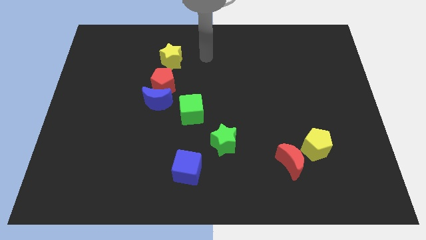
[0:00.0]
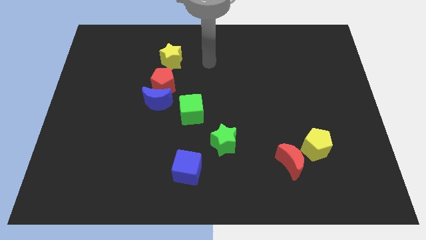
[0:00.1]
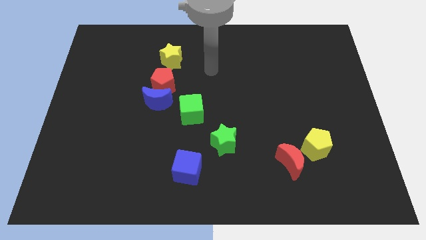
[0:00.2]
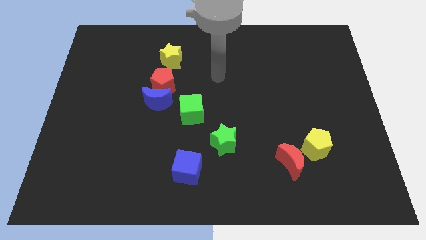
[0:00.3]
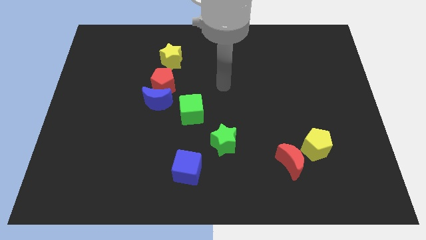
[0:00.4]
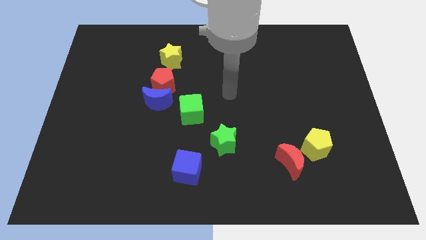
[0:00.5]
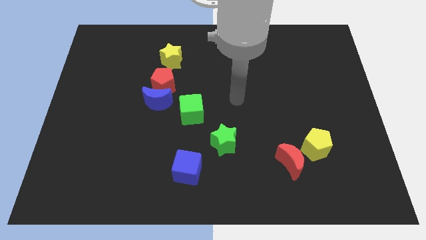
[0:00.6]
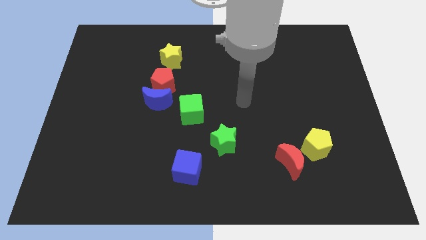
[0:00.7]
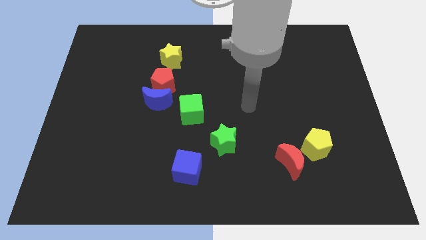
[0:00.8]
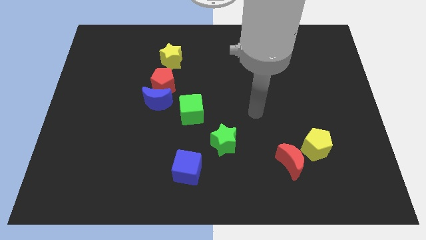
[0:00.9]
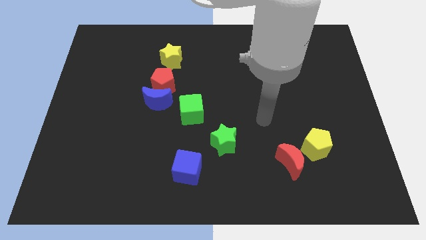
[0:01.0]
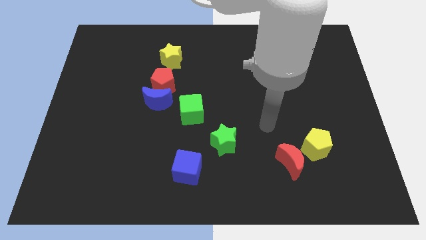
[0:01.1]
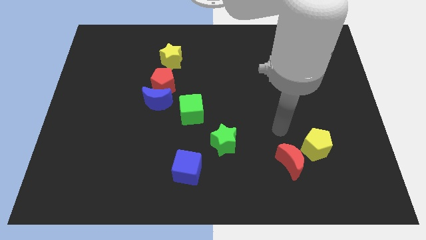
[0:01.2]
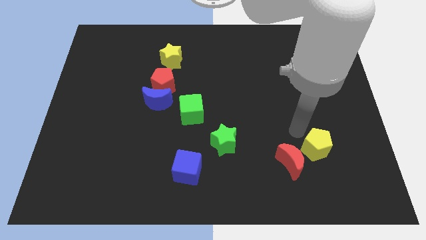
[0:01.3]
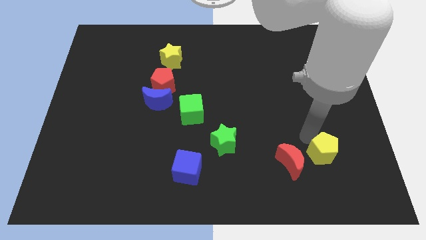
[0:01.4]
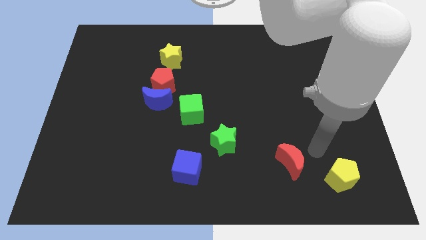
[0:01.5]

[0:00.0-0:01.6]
move the red moon away from the yellow pentagon

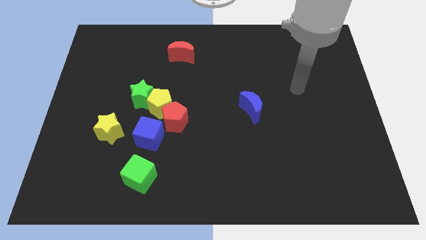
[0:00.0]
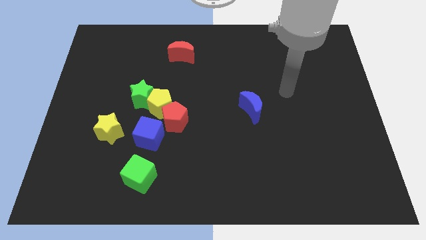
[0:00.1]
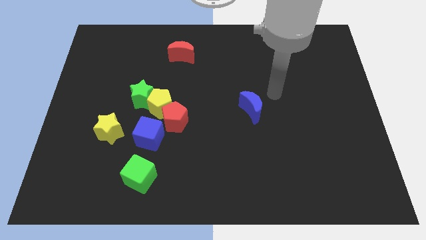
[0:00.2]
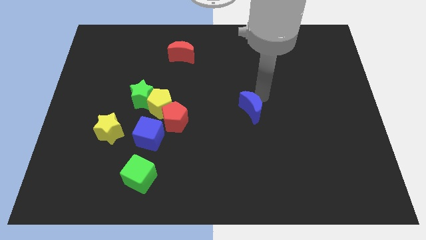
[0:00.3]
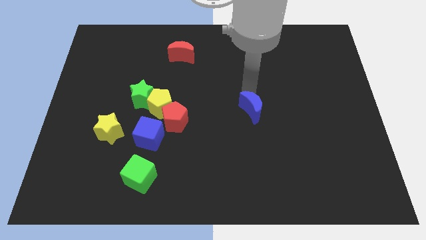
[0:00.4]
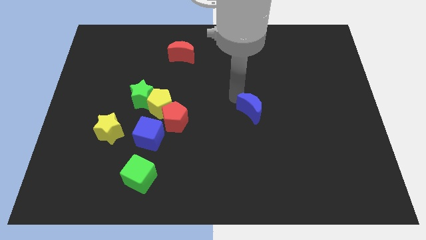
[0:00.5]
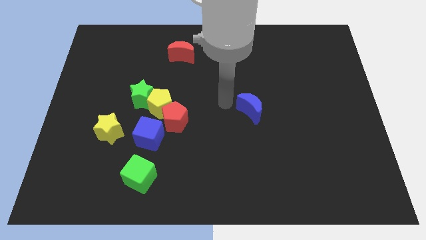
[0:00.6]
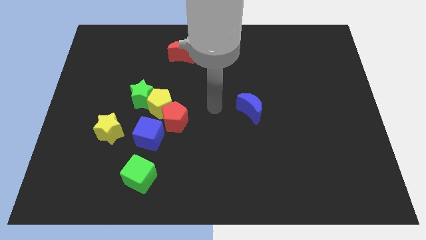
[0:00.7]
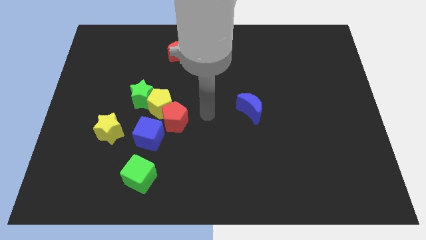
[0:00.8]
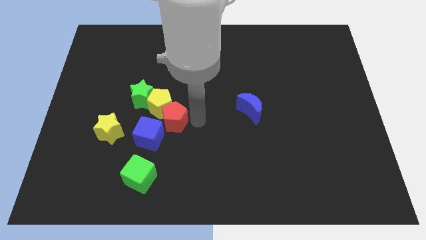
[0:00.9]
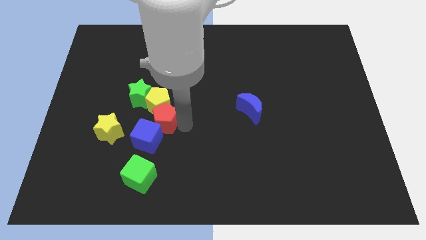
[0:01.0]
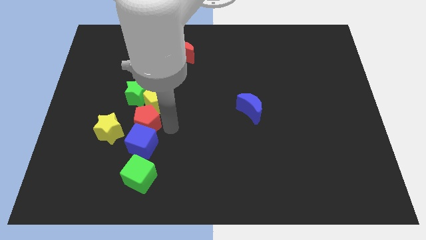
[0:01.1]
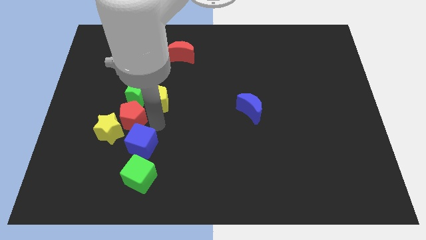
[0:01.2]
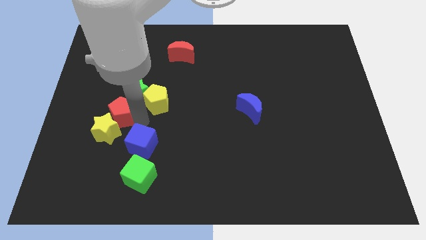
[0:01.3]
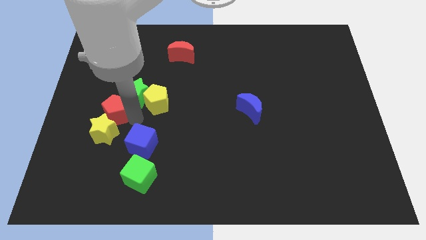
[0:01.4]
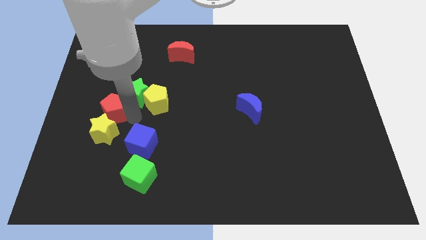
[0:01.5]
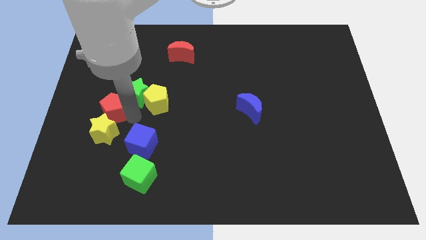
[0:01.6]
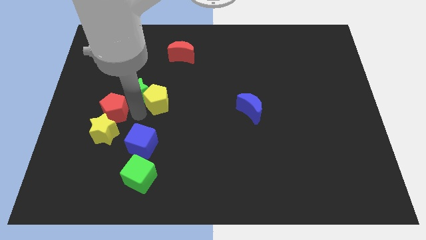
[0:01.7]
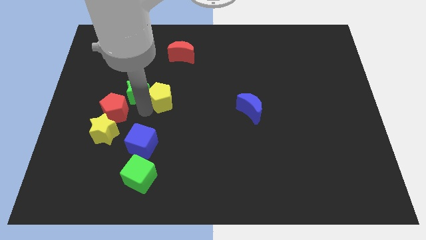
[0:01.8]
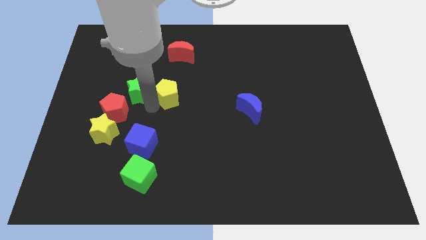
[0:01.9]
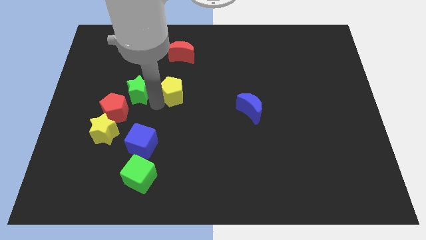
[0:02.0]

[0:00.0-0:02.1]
move the yellow pentagon away from the group of blocks

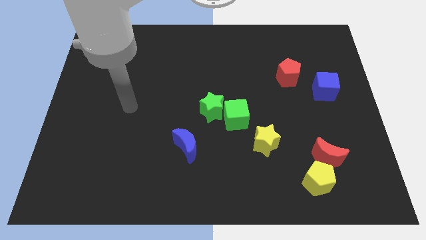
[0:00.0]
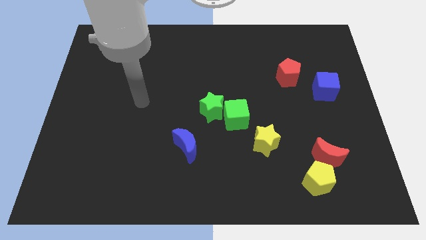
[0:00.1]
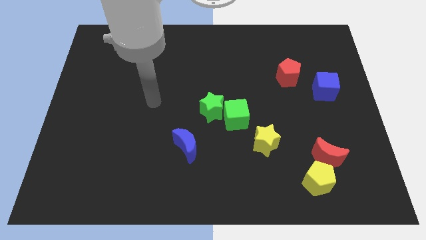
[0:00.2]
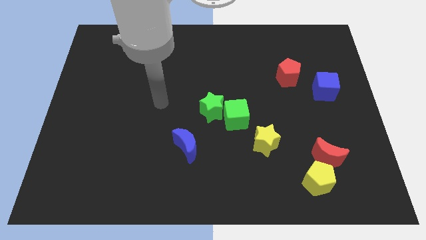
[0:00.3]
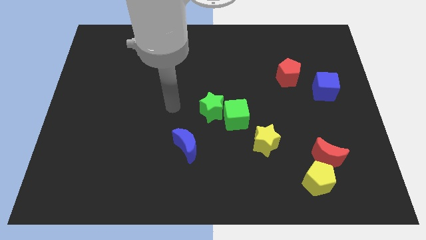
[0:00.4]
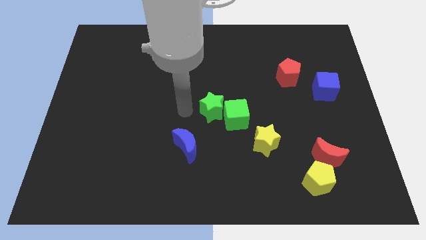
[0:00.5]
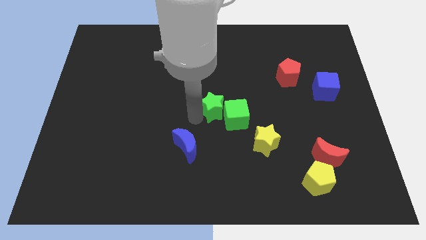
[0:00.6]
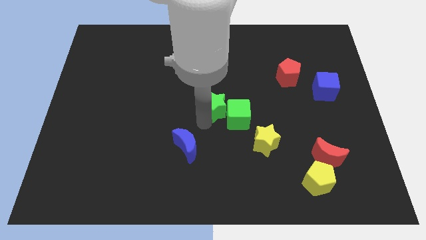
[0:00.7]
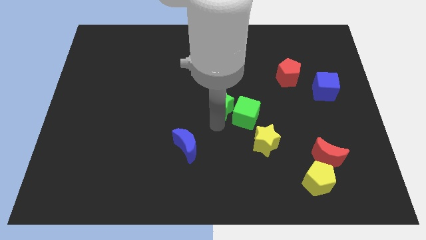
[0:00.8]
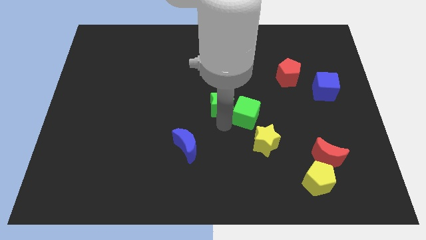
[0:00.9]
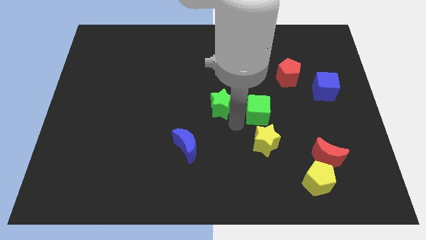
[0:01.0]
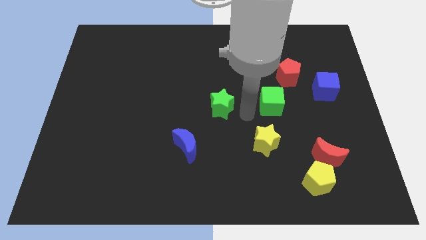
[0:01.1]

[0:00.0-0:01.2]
pull the green star apart from the green cube

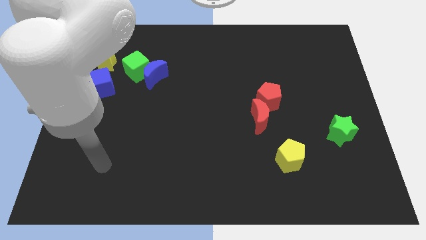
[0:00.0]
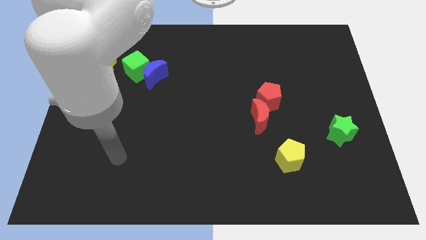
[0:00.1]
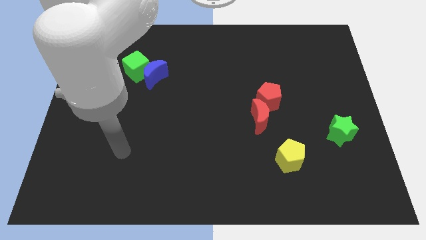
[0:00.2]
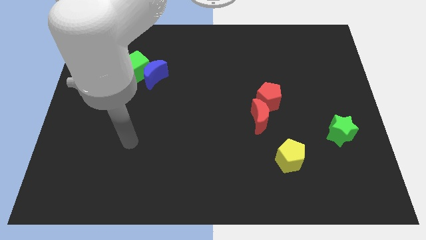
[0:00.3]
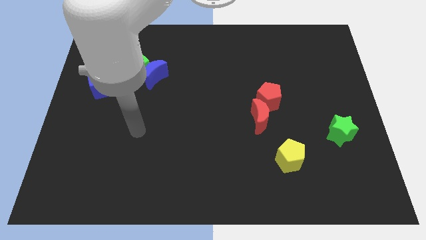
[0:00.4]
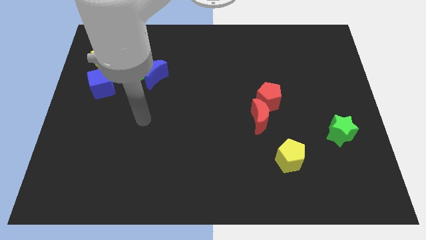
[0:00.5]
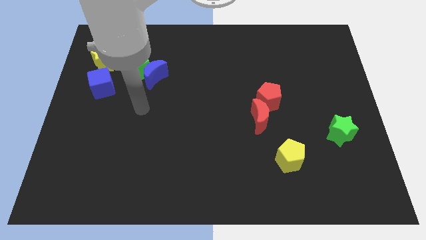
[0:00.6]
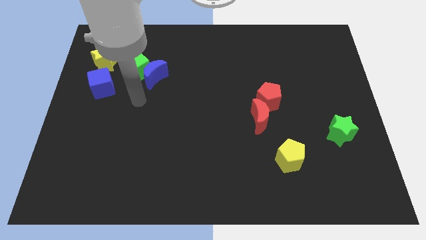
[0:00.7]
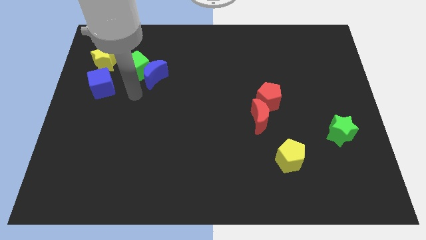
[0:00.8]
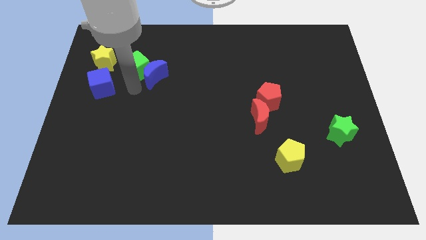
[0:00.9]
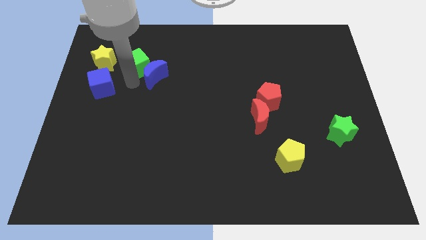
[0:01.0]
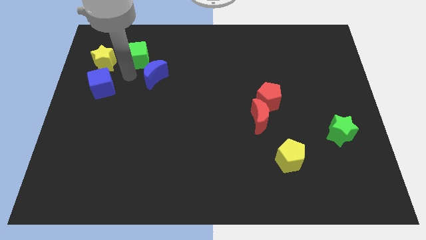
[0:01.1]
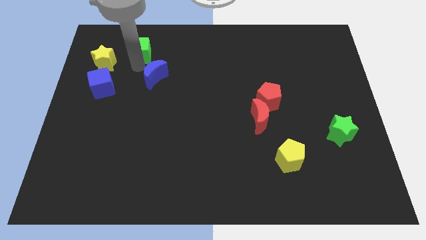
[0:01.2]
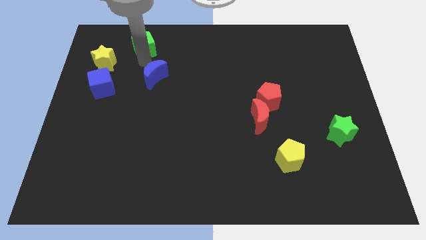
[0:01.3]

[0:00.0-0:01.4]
move the blue moon away from the green cube

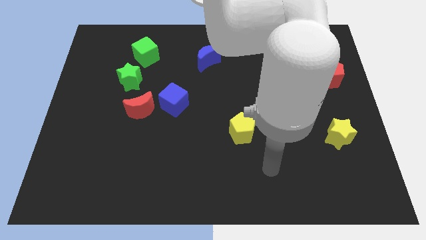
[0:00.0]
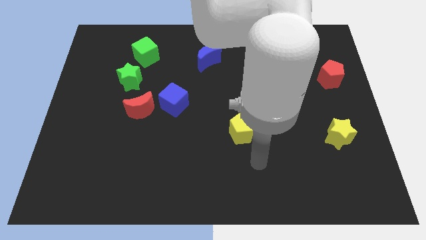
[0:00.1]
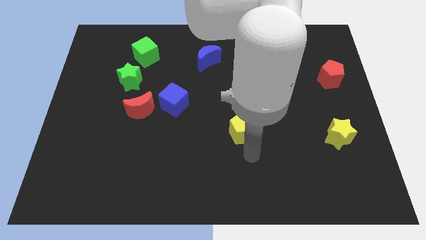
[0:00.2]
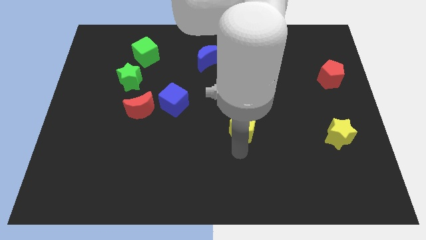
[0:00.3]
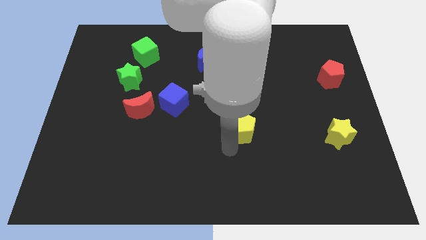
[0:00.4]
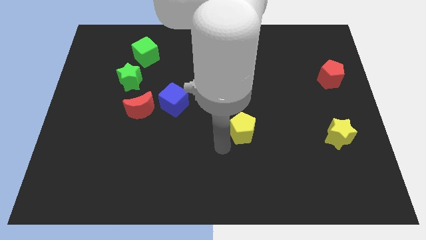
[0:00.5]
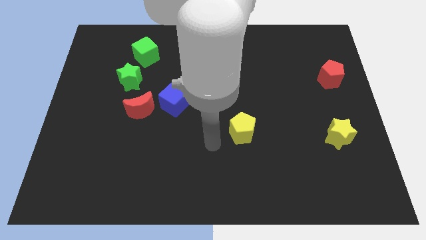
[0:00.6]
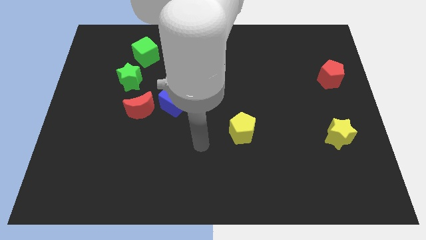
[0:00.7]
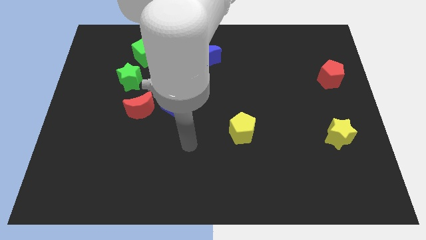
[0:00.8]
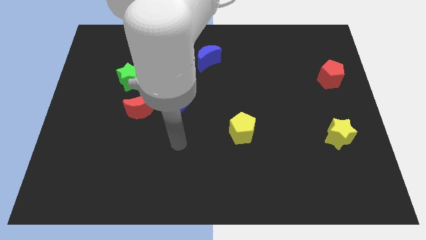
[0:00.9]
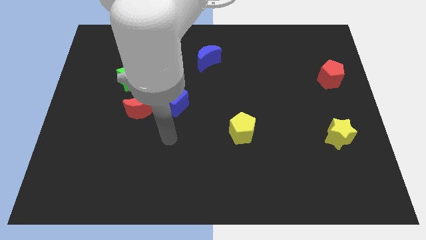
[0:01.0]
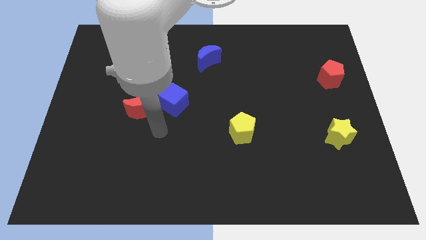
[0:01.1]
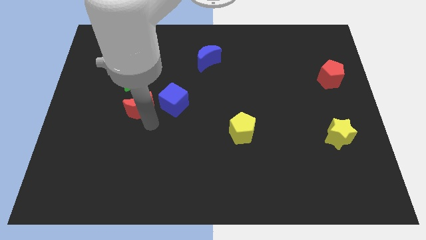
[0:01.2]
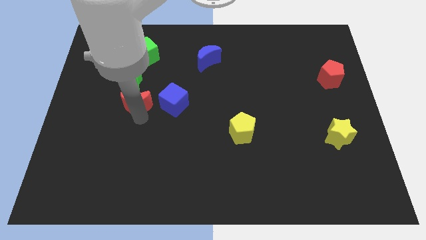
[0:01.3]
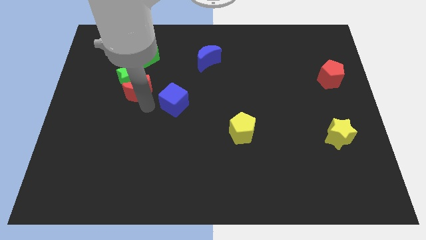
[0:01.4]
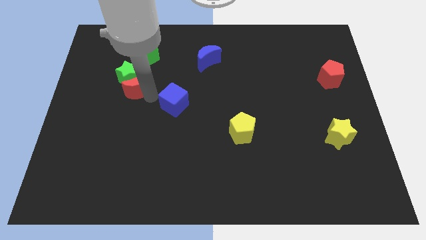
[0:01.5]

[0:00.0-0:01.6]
move the blue cube away from the red moon

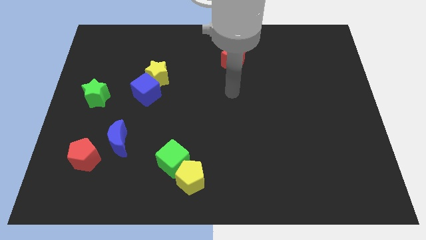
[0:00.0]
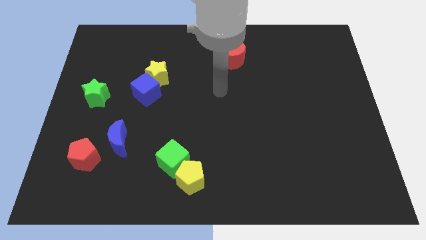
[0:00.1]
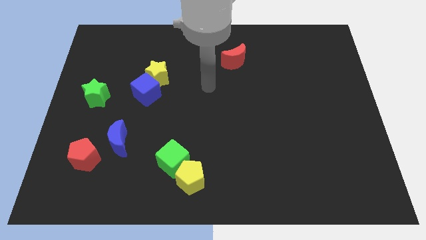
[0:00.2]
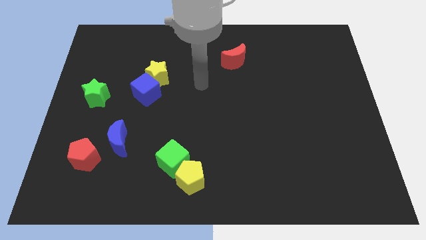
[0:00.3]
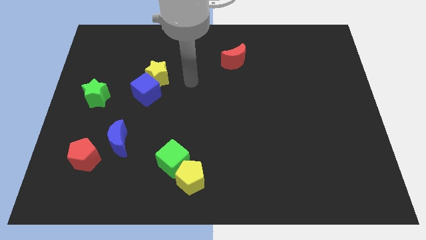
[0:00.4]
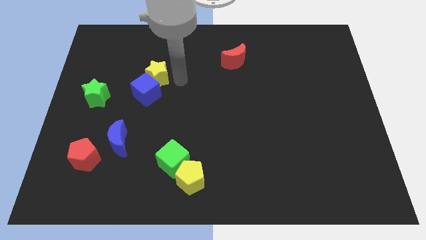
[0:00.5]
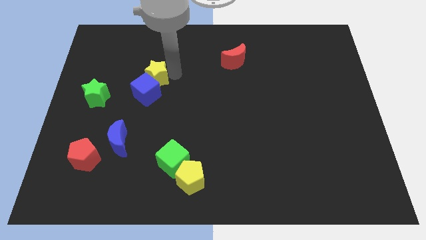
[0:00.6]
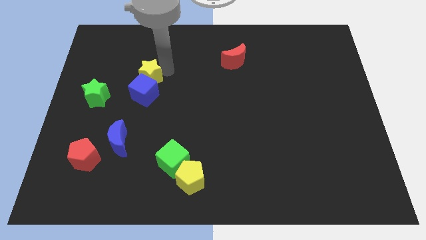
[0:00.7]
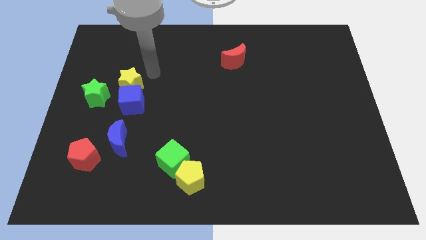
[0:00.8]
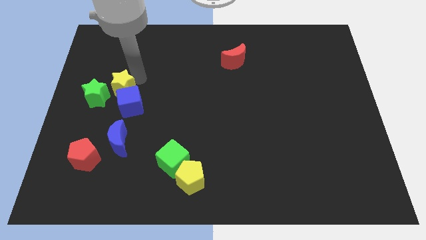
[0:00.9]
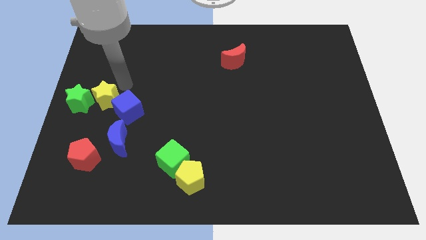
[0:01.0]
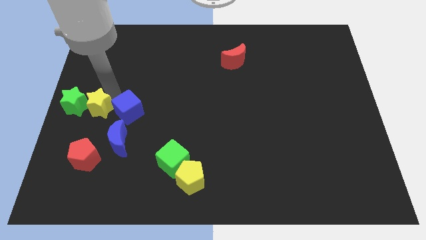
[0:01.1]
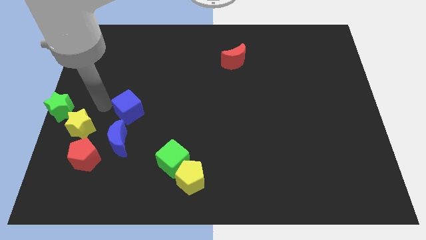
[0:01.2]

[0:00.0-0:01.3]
pull the blue cube apart from the yellow star
